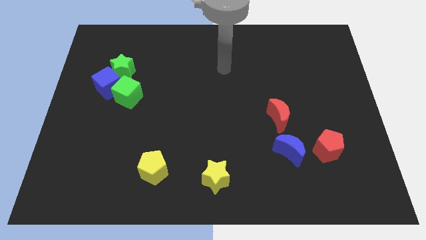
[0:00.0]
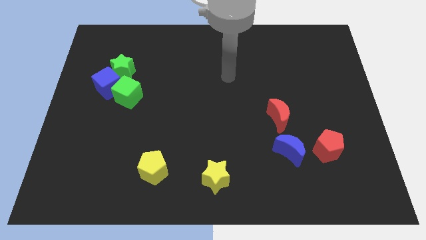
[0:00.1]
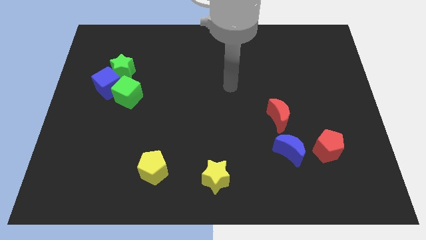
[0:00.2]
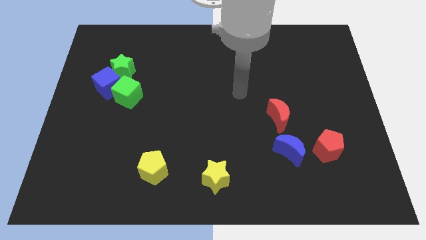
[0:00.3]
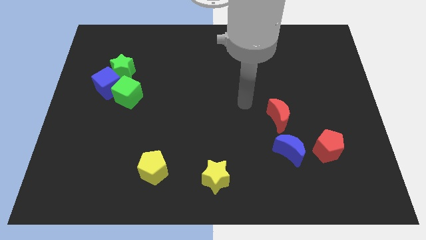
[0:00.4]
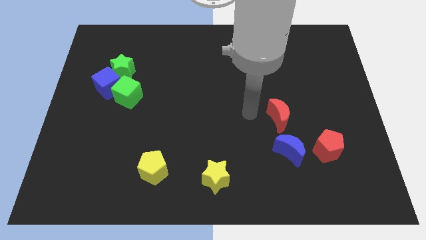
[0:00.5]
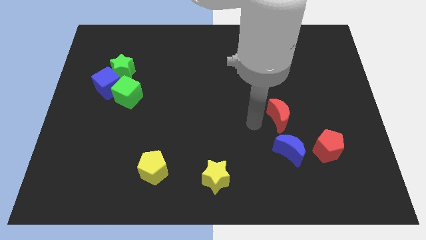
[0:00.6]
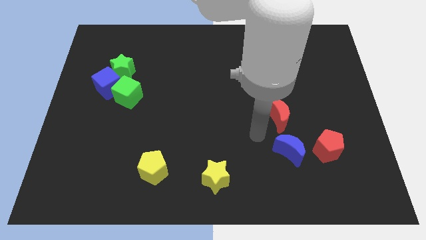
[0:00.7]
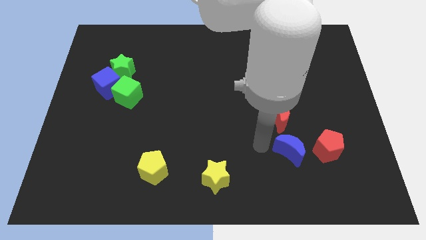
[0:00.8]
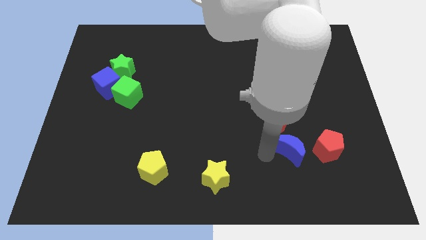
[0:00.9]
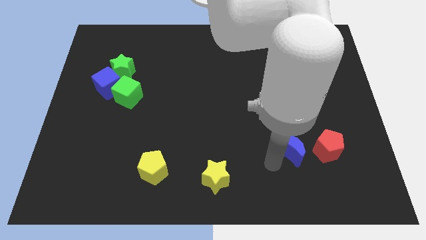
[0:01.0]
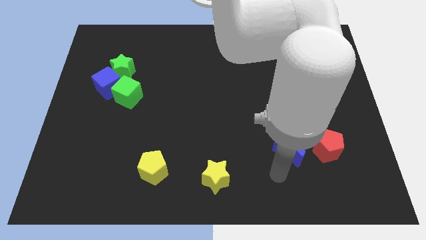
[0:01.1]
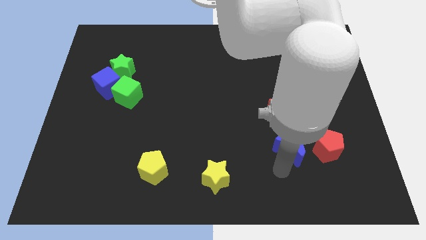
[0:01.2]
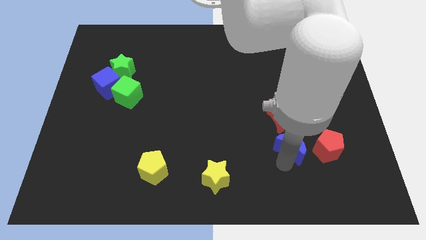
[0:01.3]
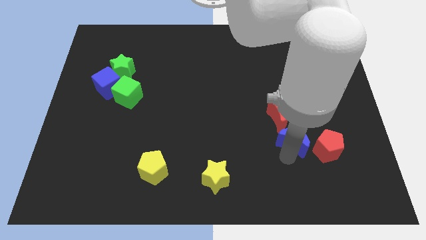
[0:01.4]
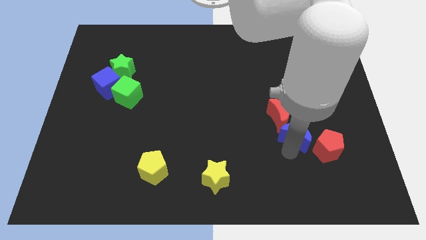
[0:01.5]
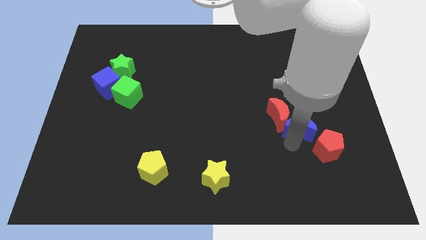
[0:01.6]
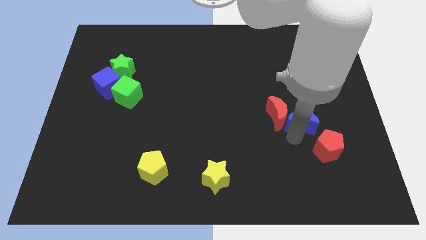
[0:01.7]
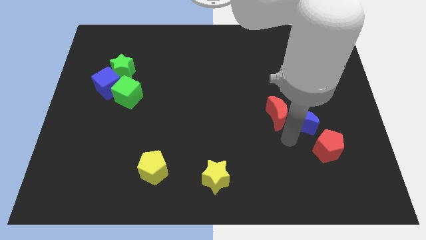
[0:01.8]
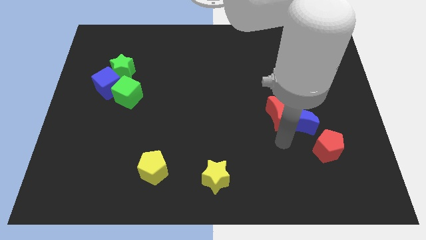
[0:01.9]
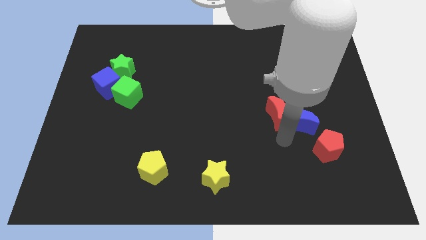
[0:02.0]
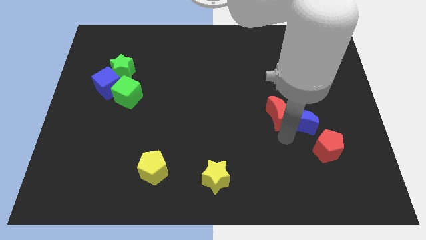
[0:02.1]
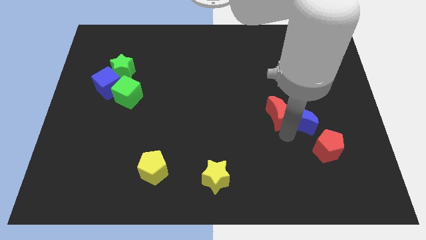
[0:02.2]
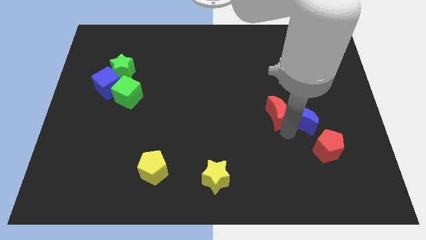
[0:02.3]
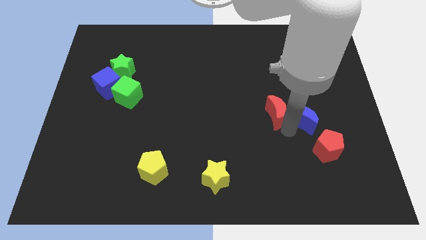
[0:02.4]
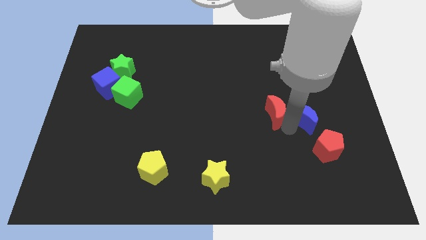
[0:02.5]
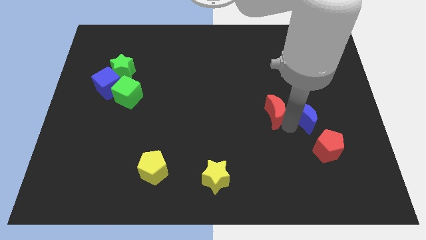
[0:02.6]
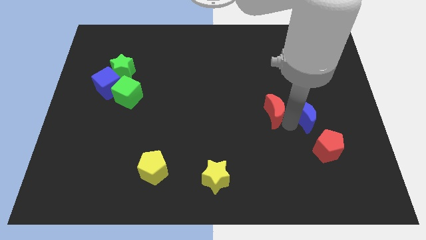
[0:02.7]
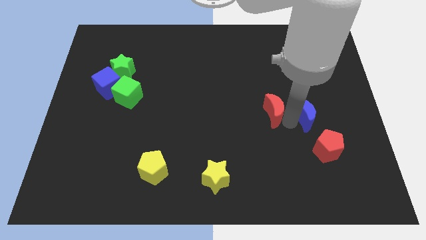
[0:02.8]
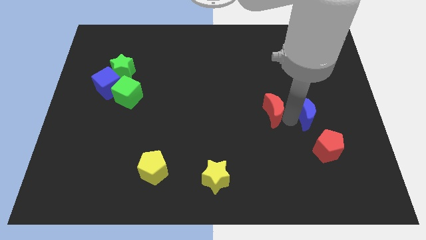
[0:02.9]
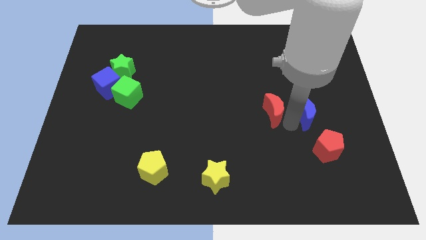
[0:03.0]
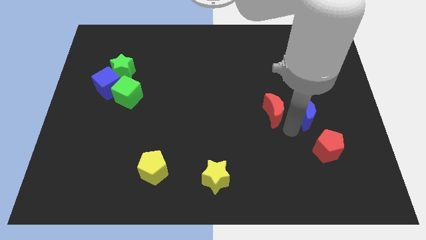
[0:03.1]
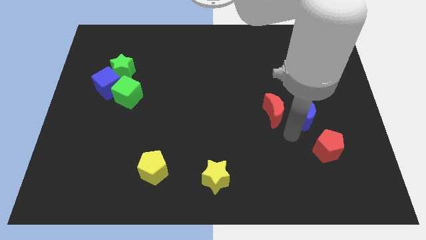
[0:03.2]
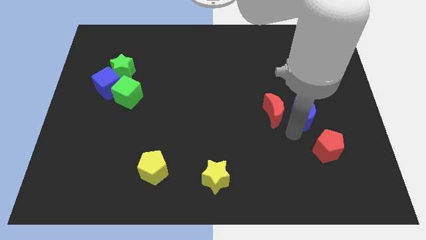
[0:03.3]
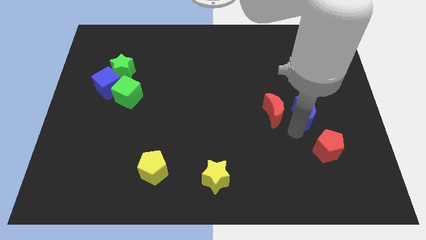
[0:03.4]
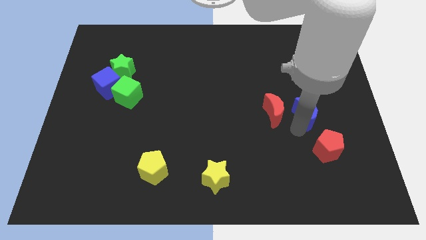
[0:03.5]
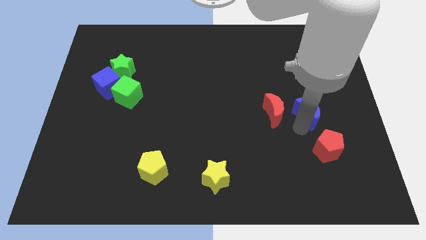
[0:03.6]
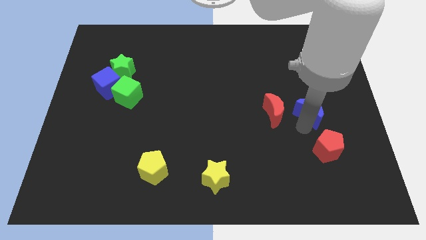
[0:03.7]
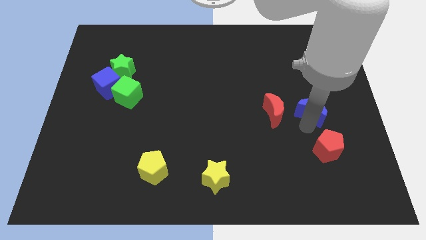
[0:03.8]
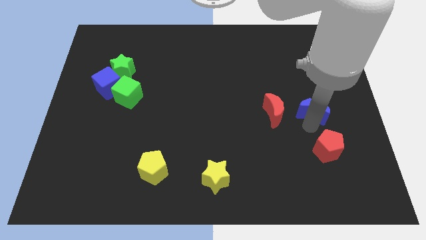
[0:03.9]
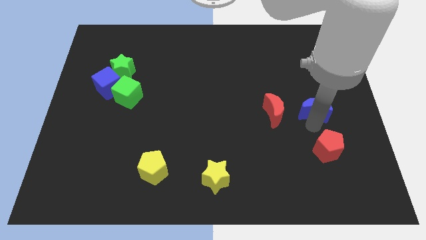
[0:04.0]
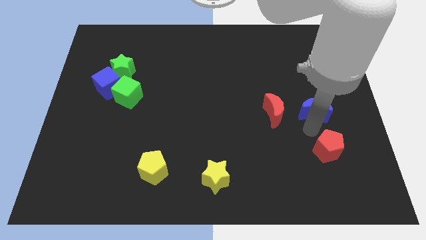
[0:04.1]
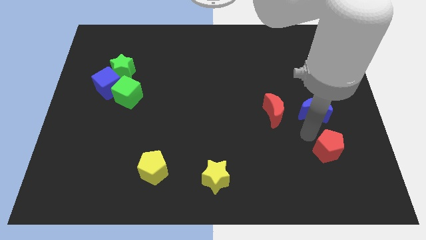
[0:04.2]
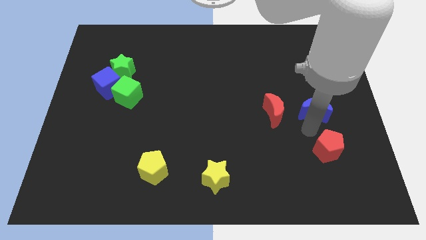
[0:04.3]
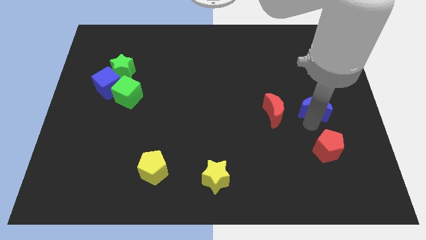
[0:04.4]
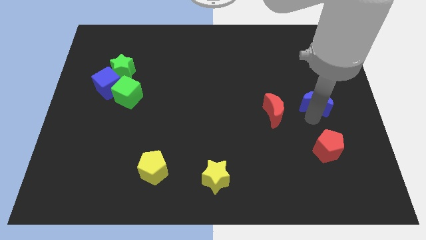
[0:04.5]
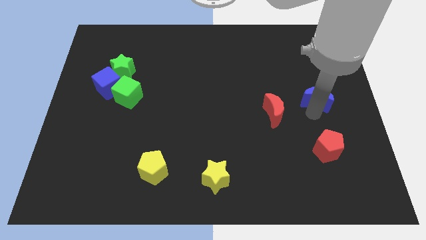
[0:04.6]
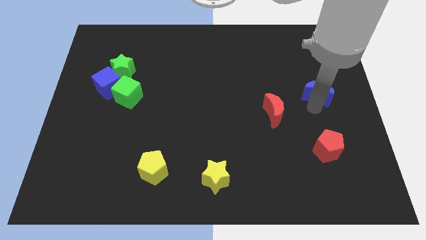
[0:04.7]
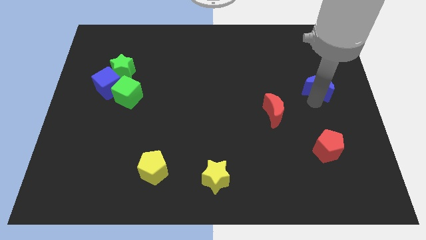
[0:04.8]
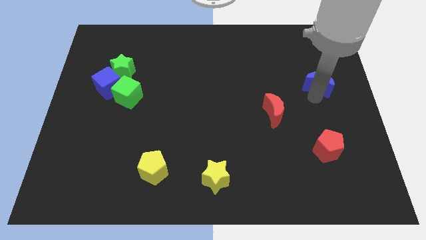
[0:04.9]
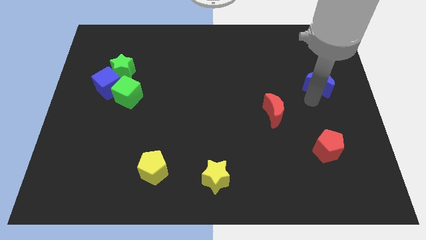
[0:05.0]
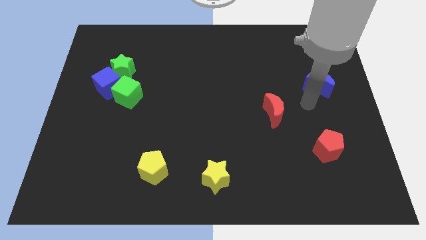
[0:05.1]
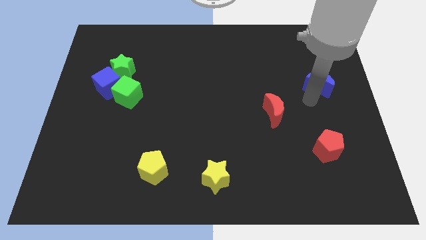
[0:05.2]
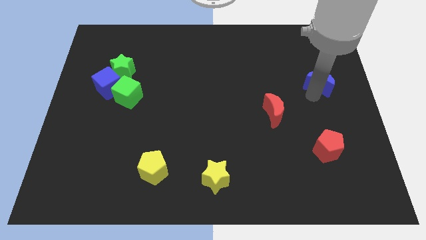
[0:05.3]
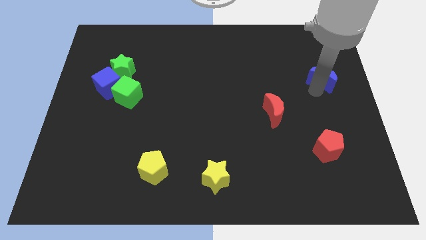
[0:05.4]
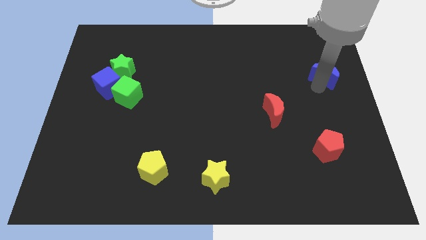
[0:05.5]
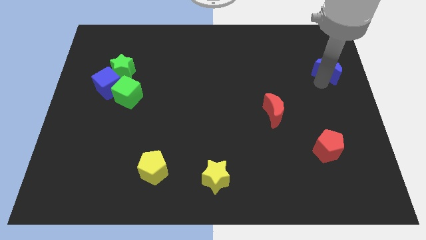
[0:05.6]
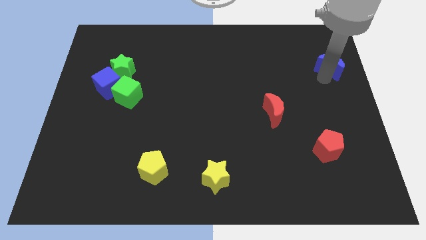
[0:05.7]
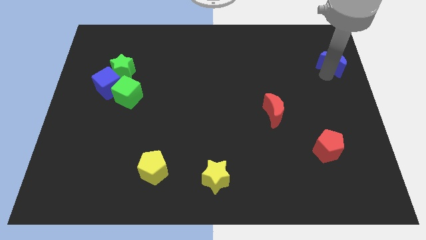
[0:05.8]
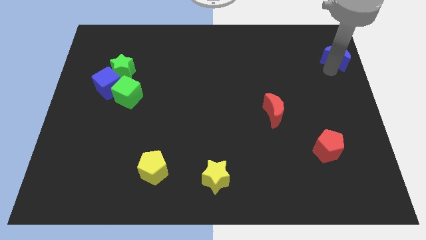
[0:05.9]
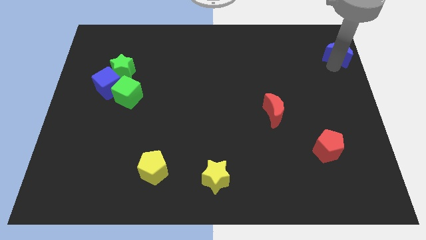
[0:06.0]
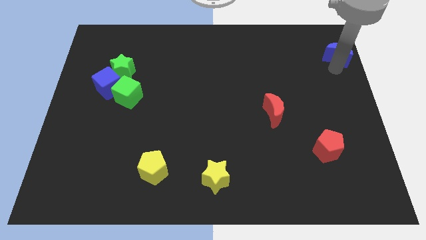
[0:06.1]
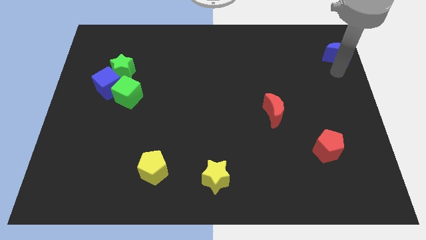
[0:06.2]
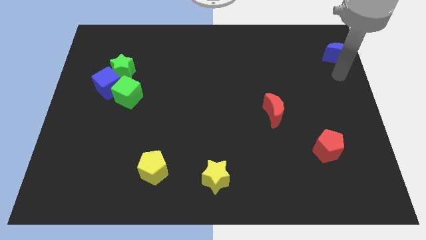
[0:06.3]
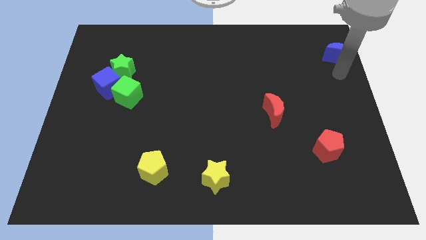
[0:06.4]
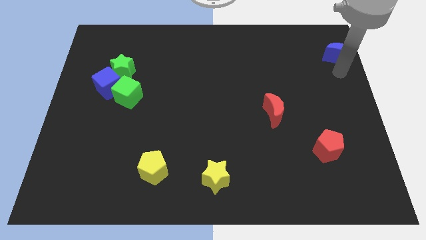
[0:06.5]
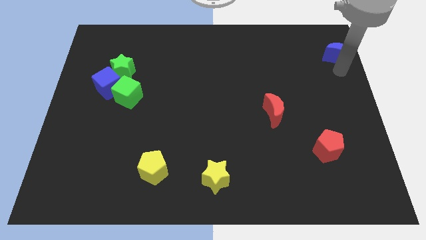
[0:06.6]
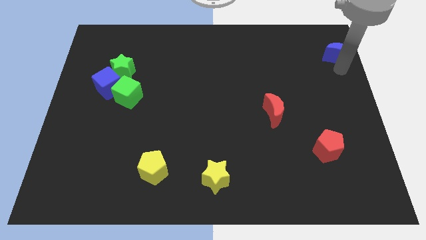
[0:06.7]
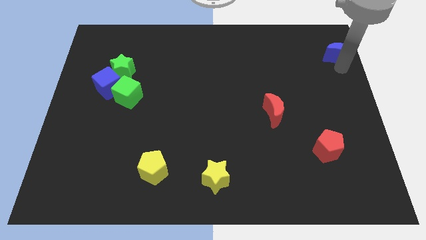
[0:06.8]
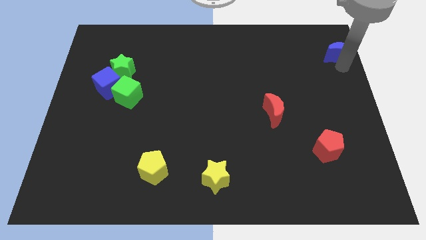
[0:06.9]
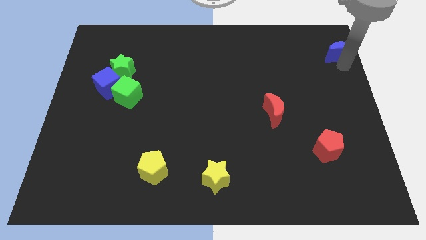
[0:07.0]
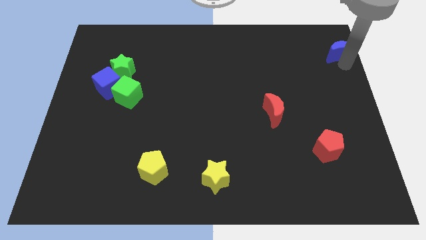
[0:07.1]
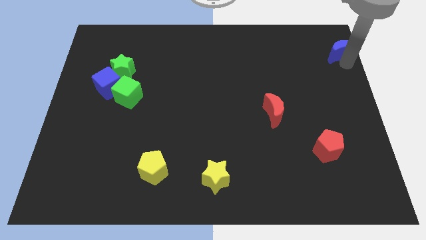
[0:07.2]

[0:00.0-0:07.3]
push the blue moon to the top right
